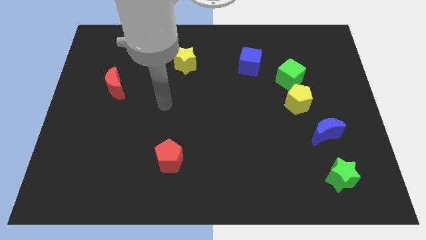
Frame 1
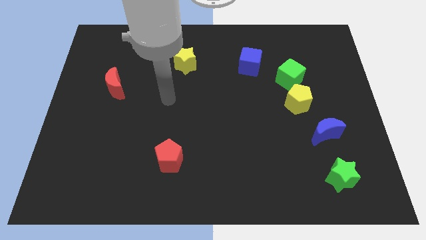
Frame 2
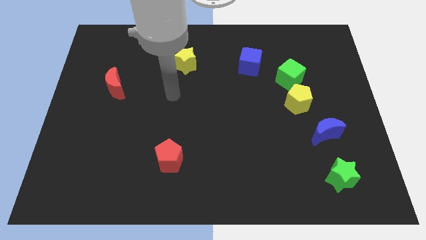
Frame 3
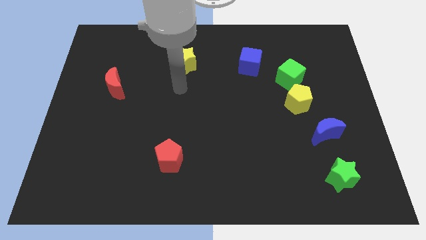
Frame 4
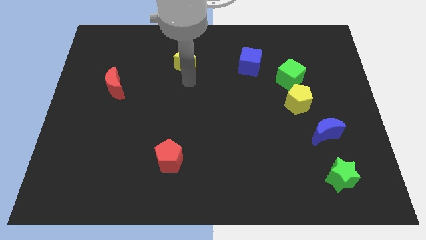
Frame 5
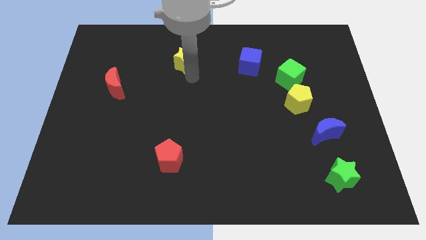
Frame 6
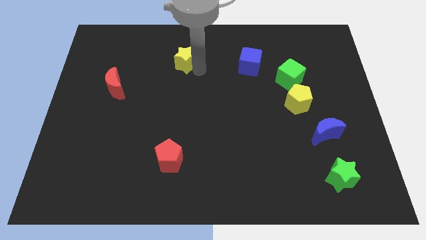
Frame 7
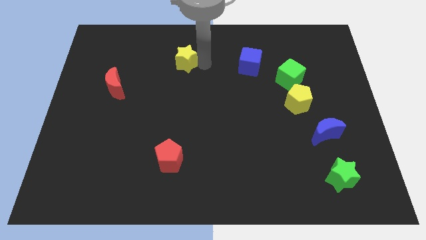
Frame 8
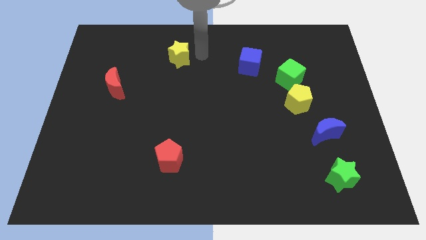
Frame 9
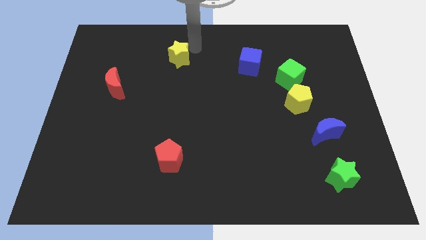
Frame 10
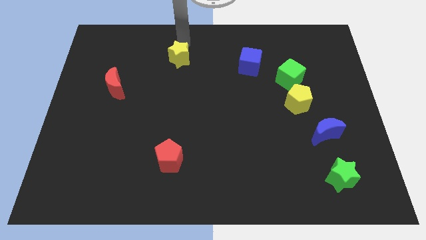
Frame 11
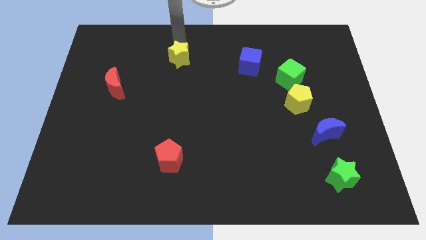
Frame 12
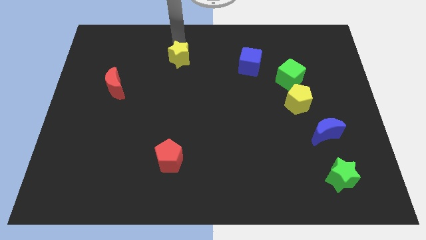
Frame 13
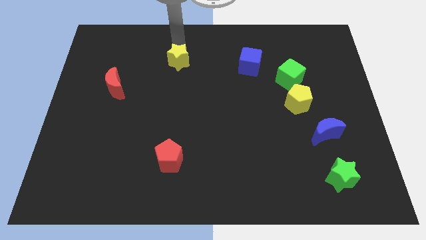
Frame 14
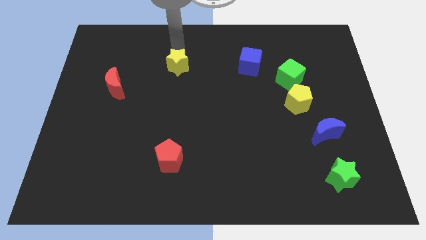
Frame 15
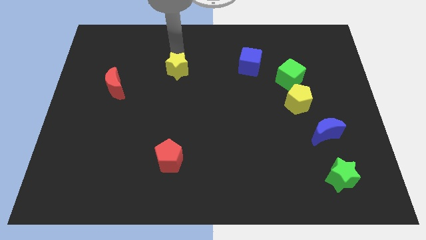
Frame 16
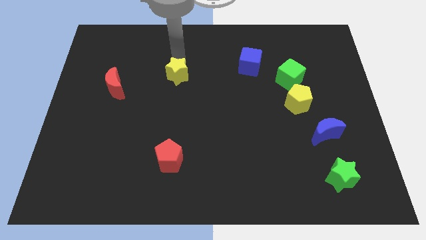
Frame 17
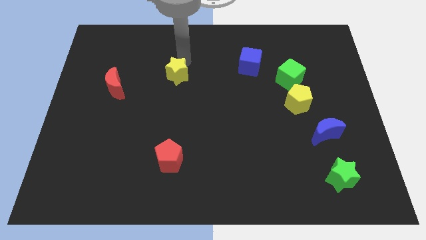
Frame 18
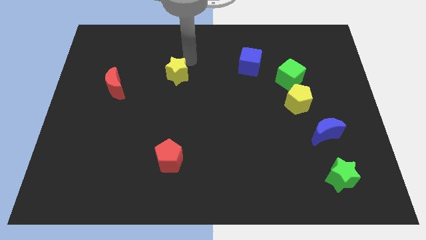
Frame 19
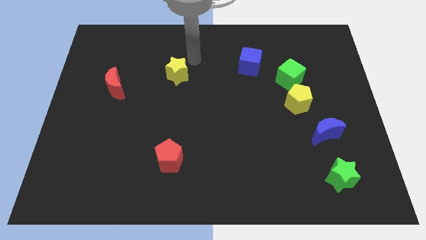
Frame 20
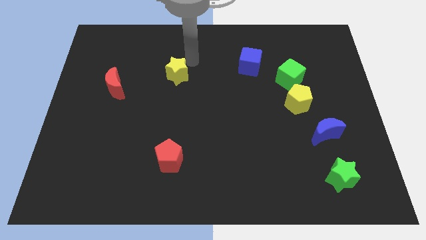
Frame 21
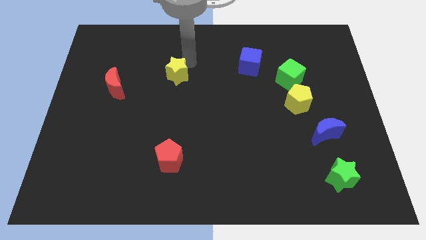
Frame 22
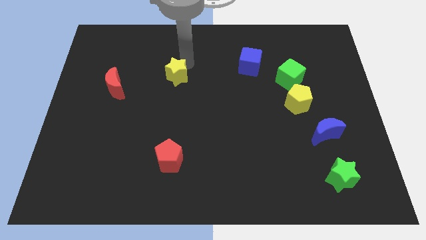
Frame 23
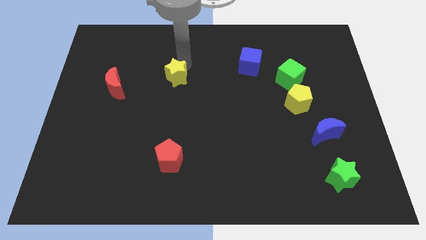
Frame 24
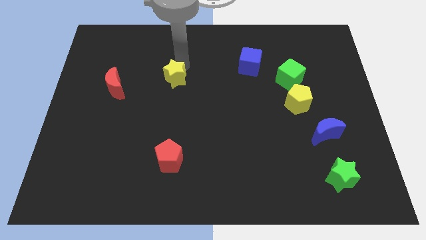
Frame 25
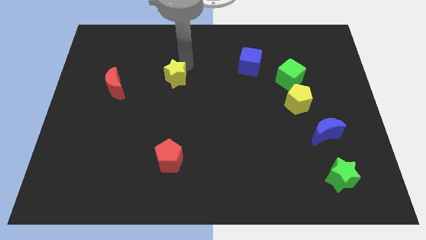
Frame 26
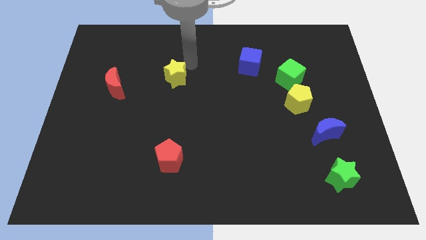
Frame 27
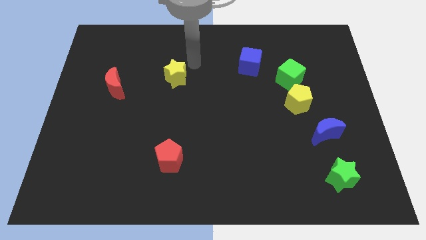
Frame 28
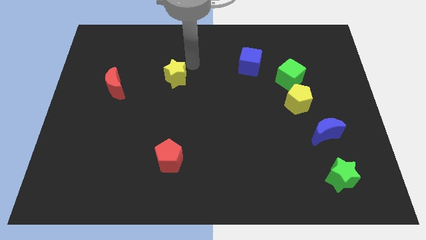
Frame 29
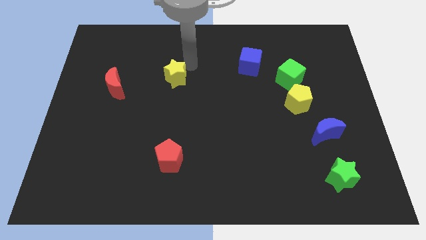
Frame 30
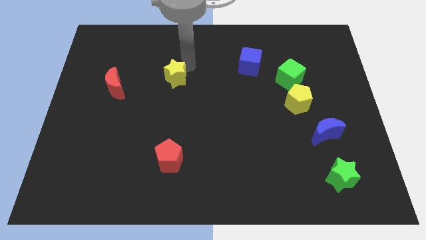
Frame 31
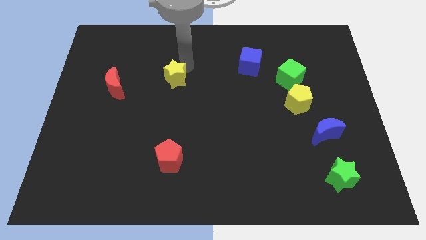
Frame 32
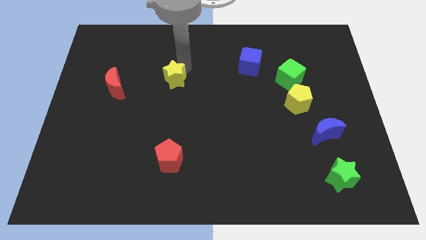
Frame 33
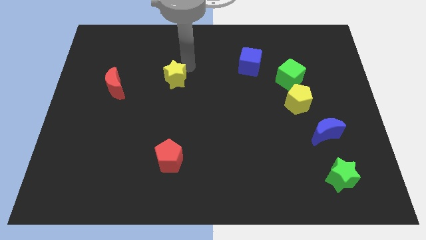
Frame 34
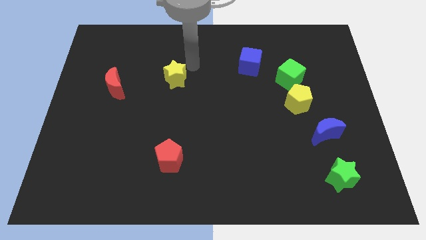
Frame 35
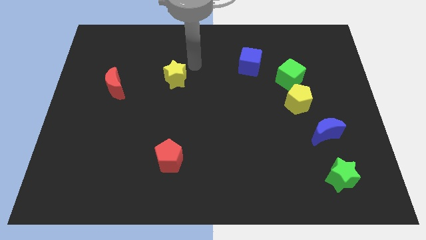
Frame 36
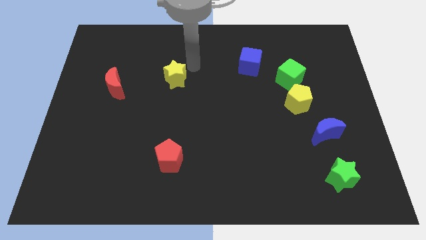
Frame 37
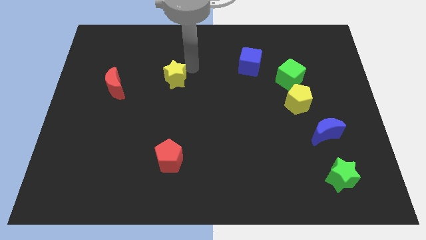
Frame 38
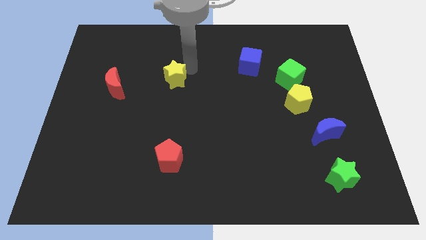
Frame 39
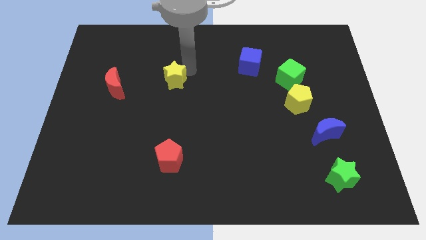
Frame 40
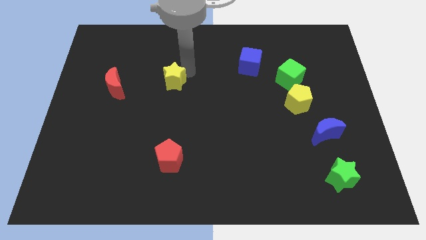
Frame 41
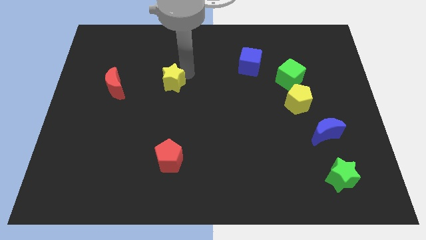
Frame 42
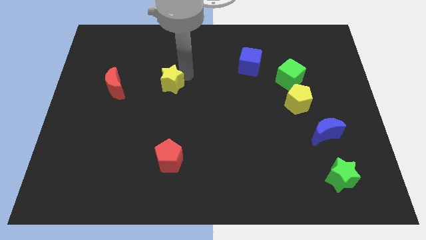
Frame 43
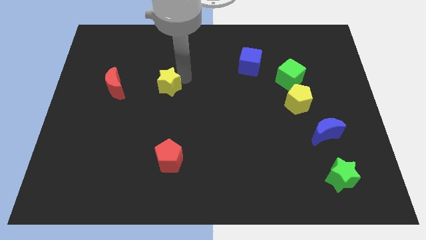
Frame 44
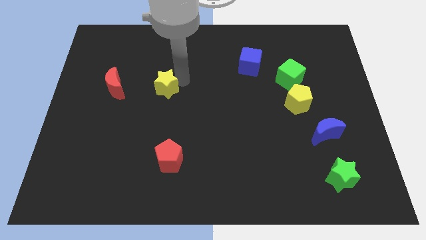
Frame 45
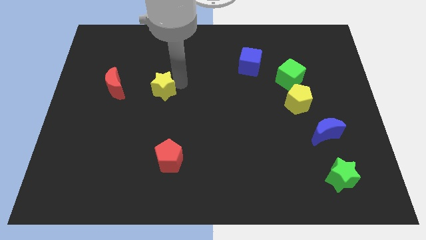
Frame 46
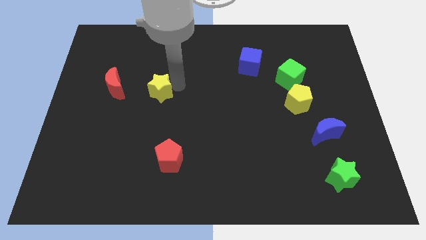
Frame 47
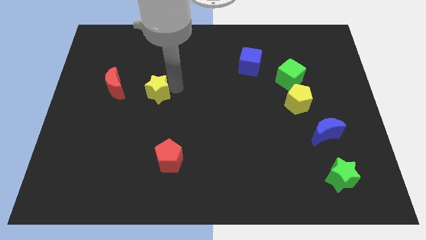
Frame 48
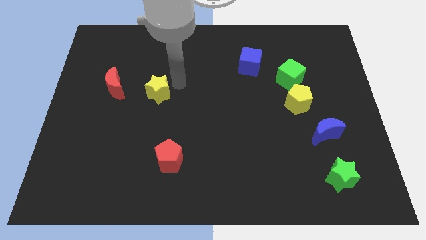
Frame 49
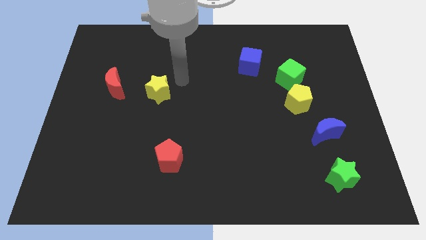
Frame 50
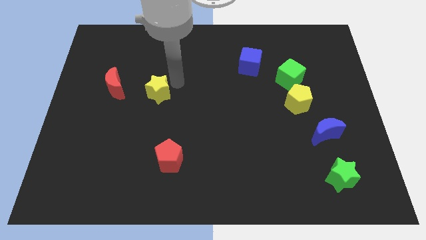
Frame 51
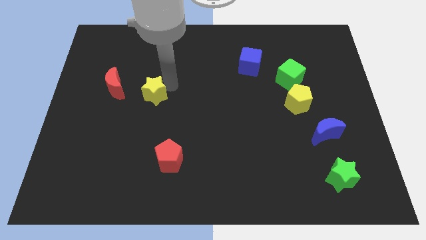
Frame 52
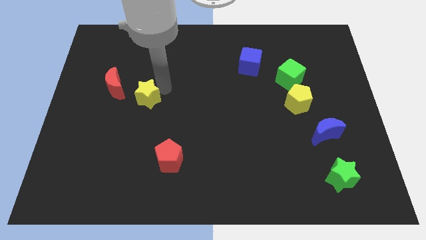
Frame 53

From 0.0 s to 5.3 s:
slide the yellow star to the bottom right of the red moon

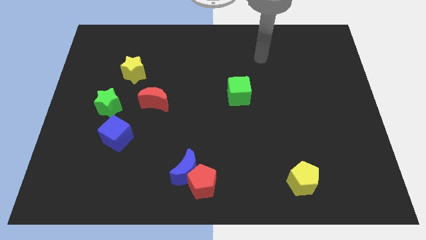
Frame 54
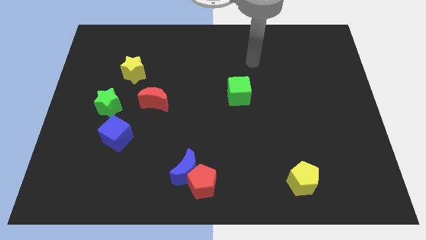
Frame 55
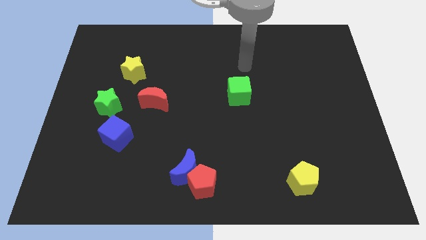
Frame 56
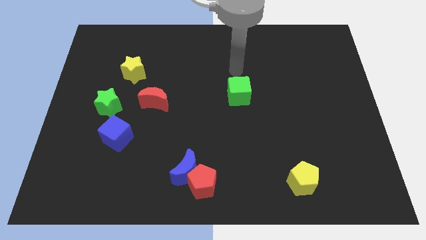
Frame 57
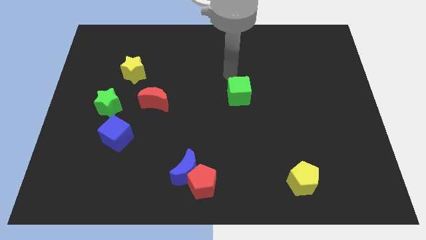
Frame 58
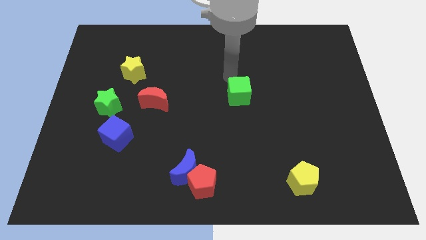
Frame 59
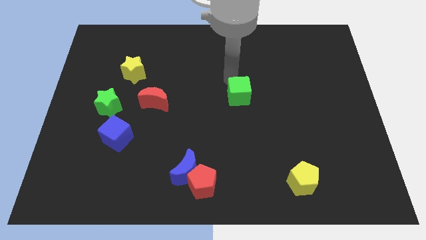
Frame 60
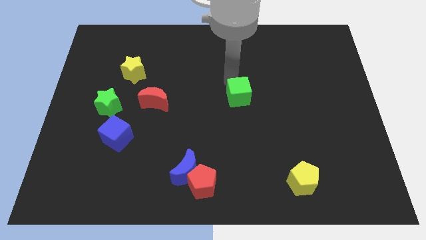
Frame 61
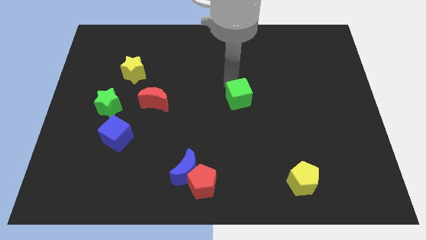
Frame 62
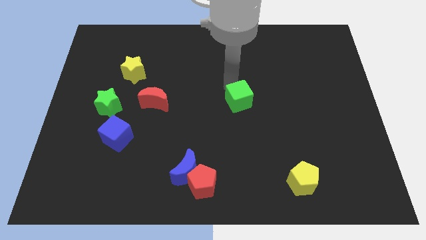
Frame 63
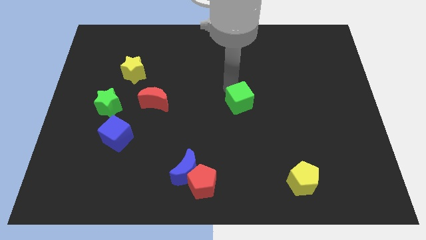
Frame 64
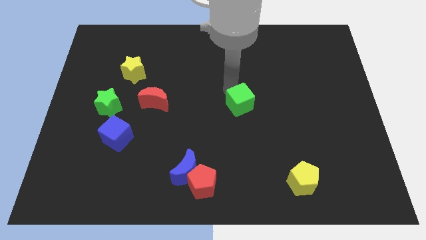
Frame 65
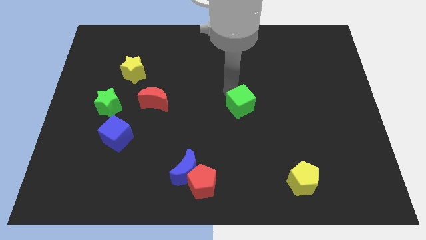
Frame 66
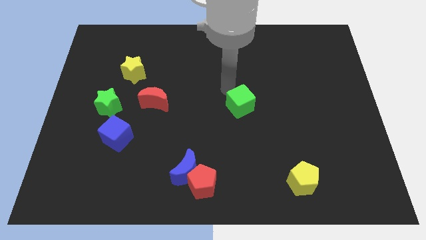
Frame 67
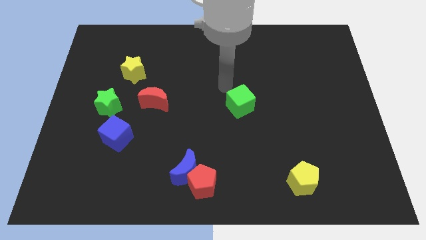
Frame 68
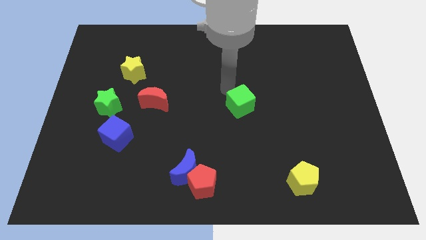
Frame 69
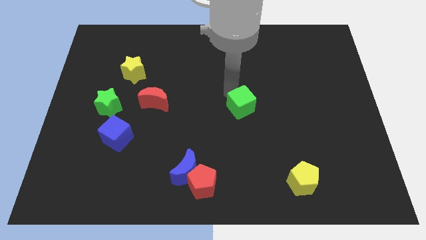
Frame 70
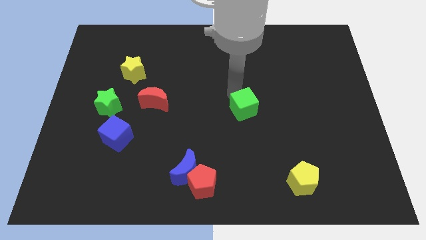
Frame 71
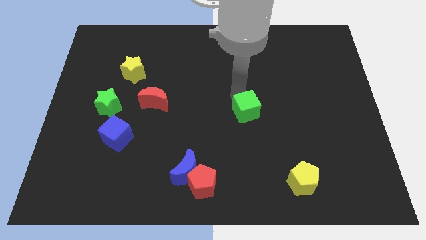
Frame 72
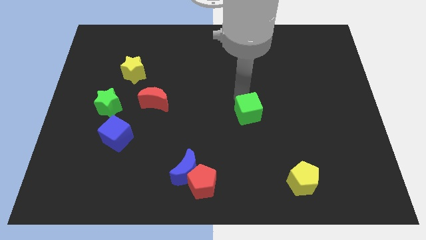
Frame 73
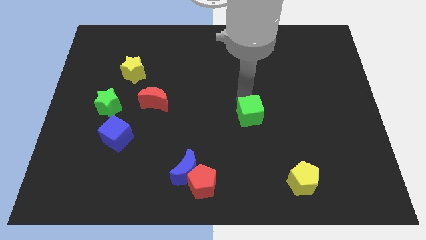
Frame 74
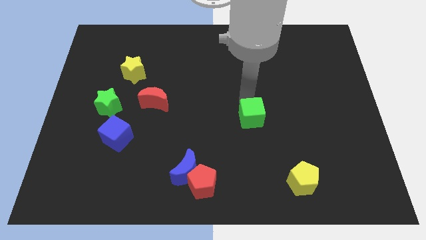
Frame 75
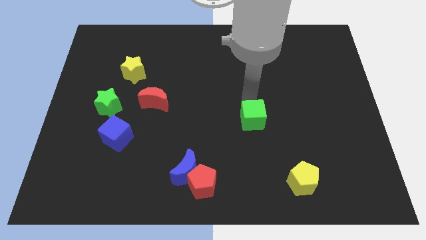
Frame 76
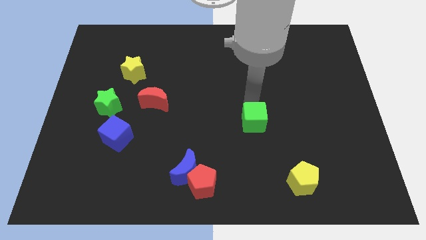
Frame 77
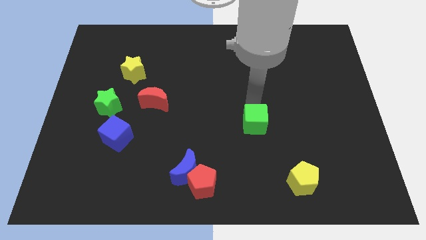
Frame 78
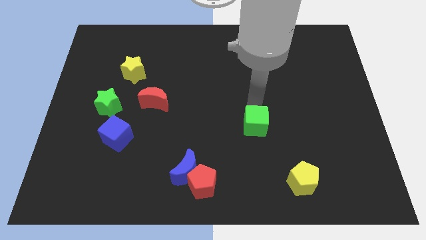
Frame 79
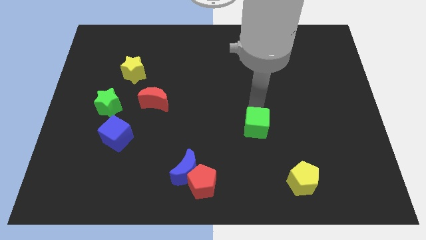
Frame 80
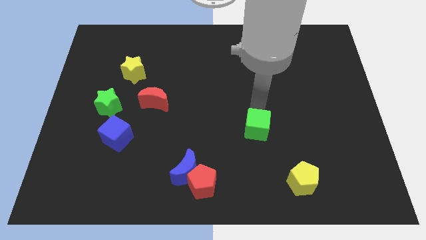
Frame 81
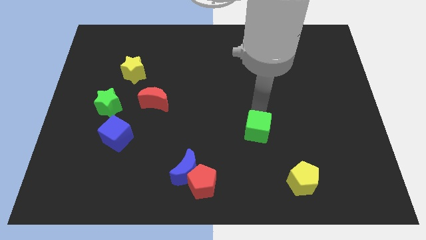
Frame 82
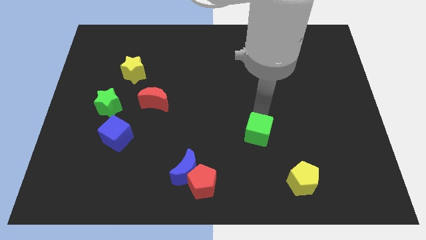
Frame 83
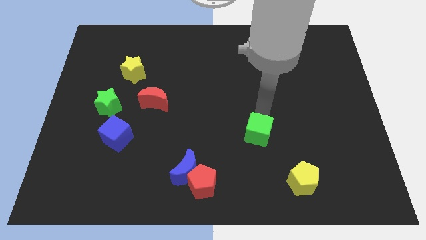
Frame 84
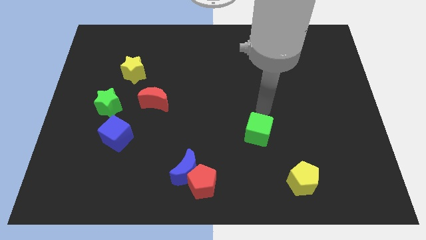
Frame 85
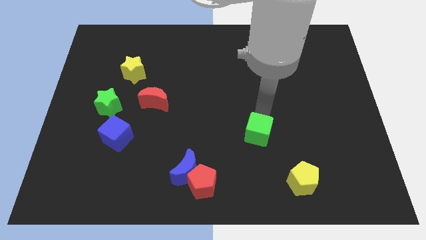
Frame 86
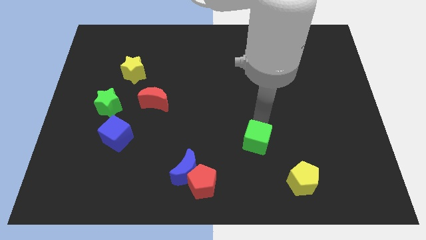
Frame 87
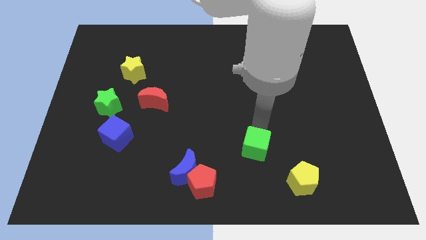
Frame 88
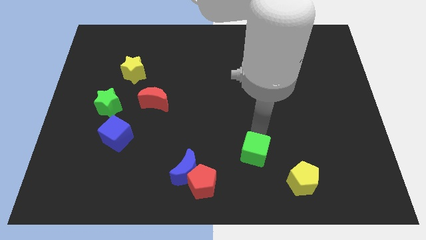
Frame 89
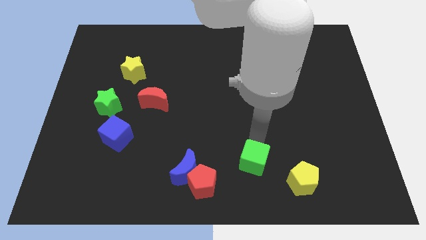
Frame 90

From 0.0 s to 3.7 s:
move the green cube left of the yellow pentagon
